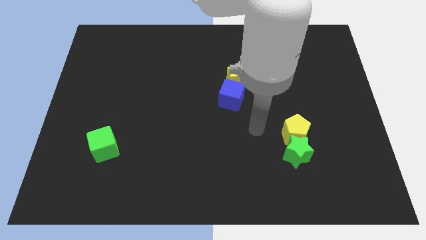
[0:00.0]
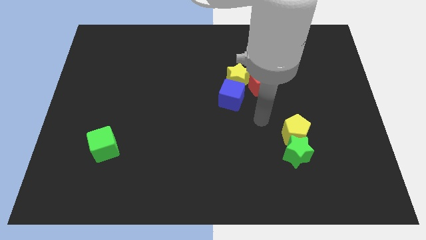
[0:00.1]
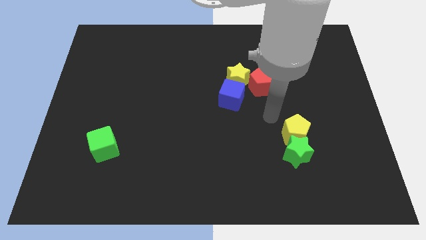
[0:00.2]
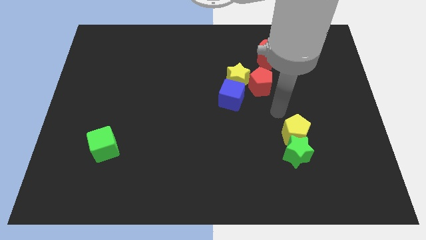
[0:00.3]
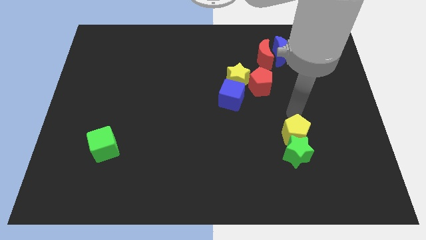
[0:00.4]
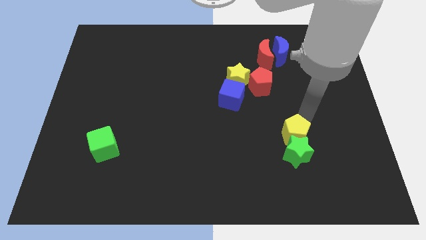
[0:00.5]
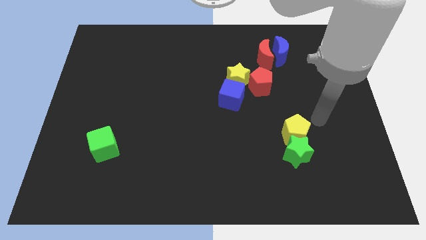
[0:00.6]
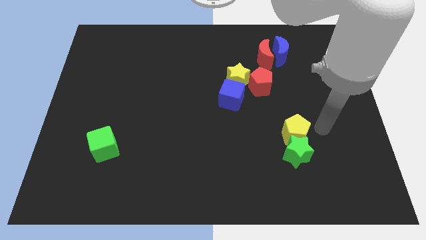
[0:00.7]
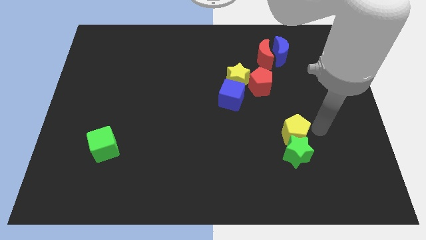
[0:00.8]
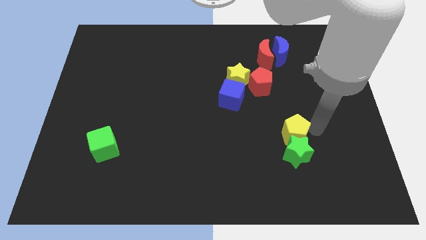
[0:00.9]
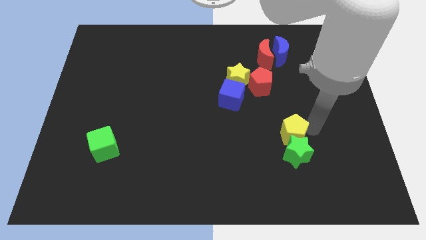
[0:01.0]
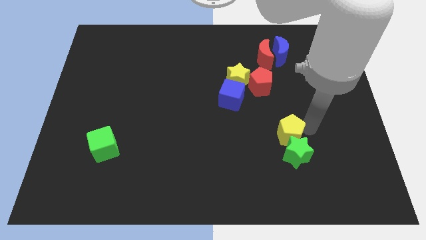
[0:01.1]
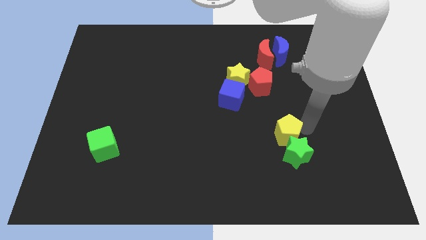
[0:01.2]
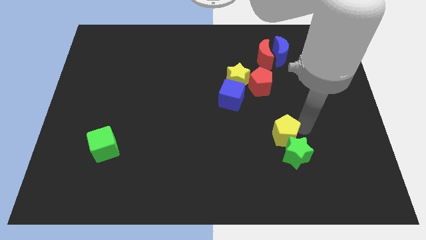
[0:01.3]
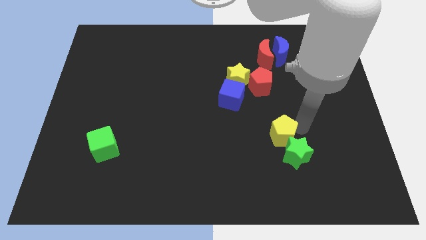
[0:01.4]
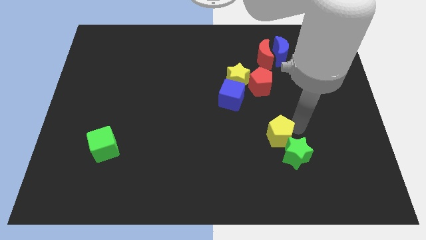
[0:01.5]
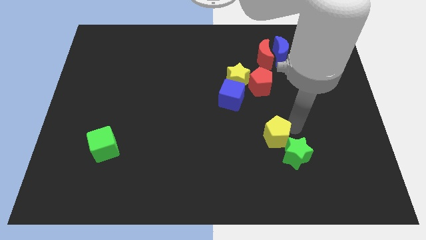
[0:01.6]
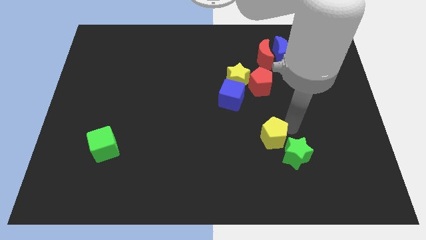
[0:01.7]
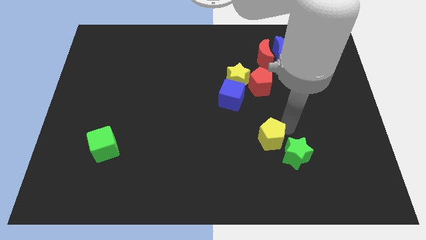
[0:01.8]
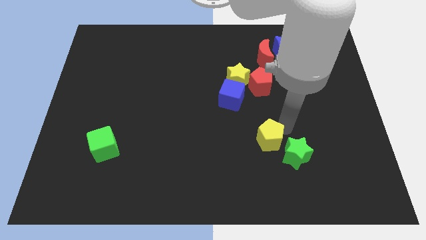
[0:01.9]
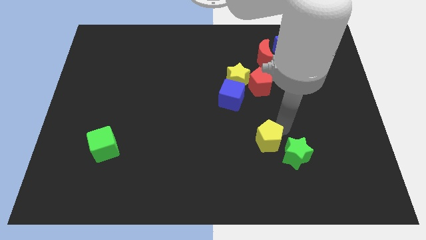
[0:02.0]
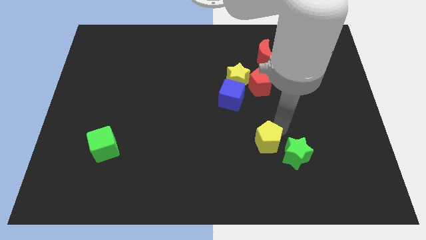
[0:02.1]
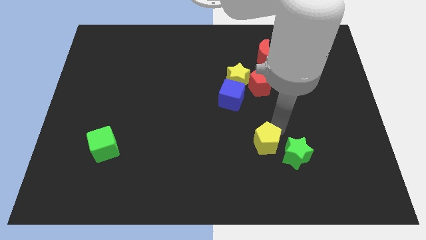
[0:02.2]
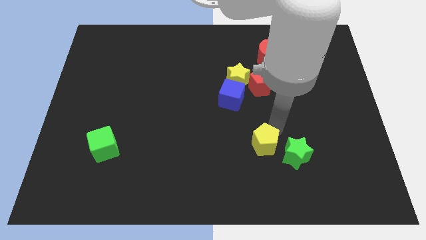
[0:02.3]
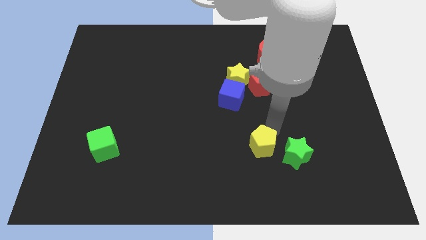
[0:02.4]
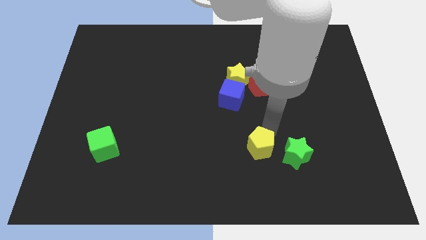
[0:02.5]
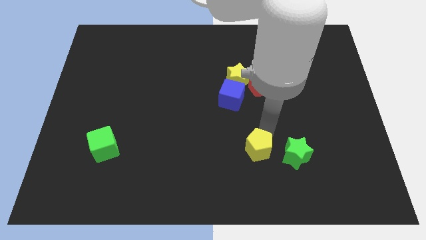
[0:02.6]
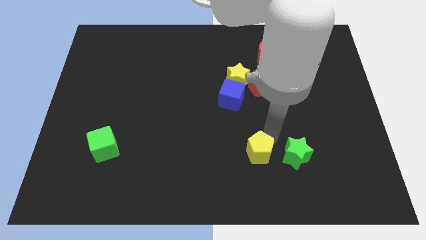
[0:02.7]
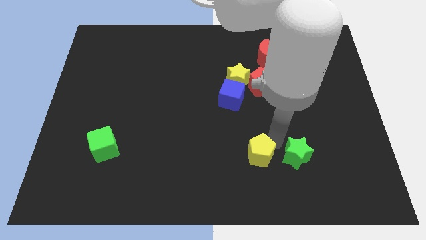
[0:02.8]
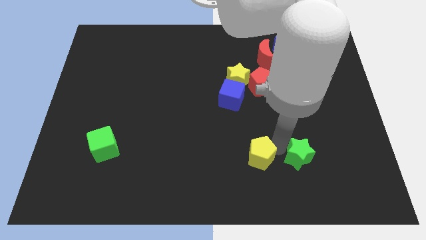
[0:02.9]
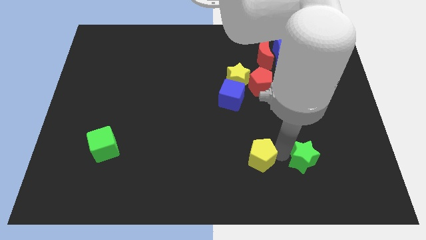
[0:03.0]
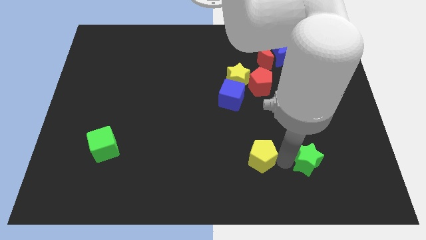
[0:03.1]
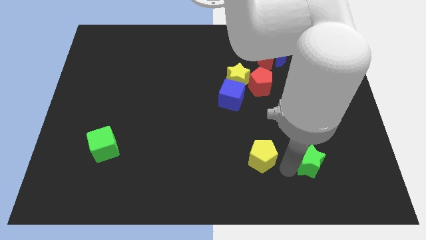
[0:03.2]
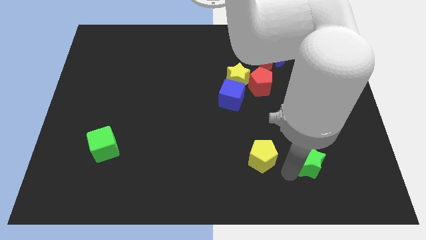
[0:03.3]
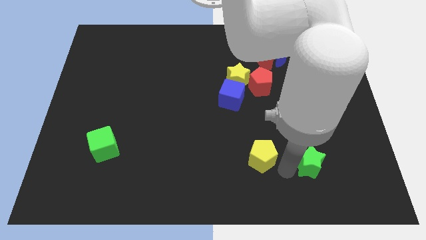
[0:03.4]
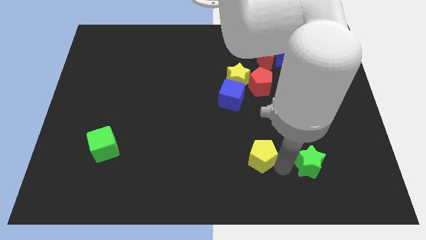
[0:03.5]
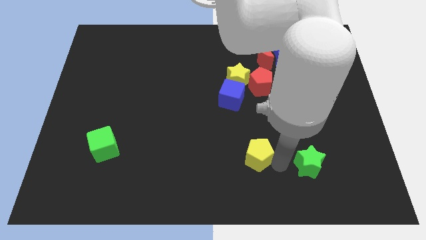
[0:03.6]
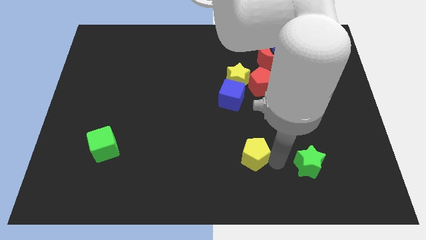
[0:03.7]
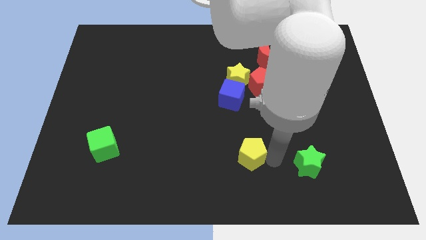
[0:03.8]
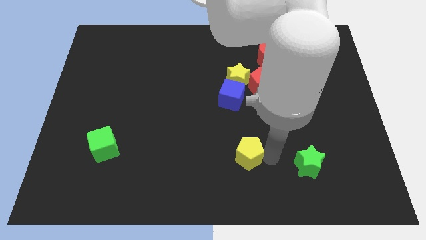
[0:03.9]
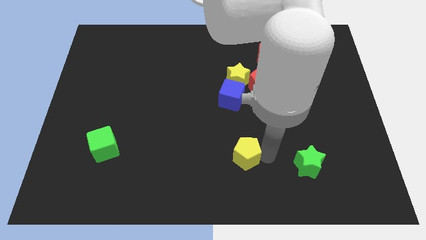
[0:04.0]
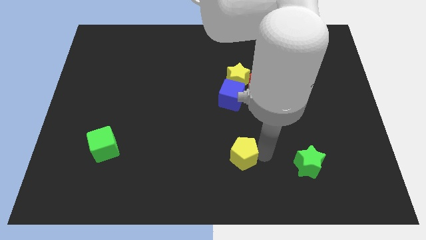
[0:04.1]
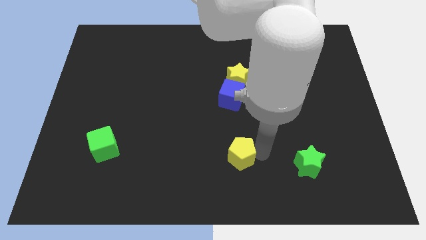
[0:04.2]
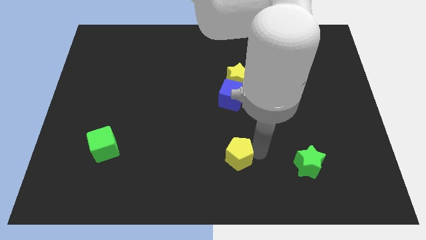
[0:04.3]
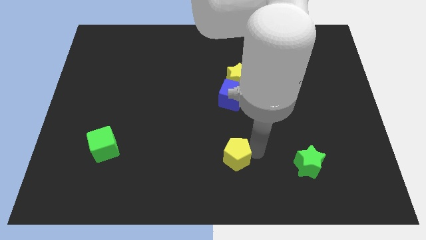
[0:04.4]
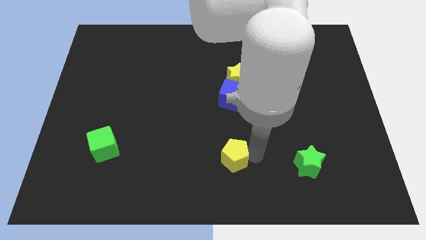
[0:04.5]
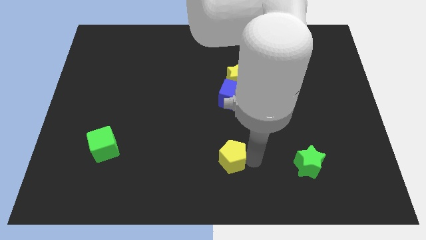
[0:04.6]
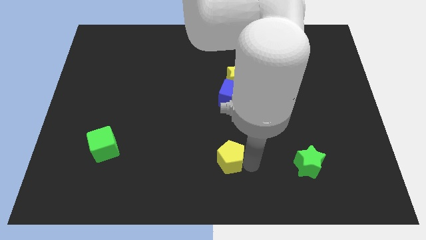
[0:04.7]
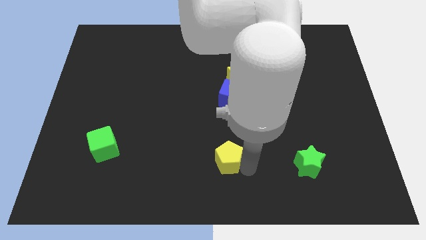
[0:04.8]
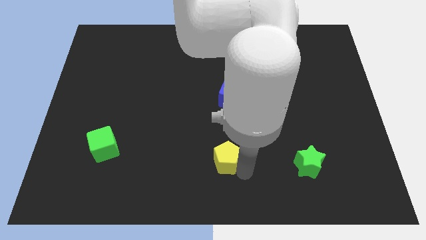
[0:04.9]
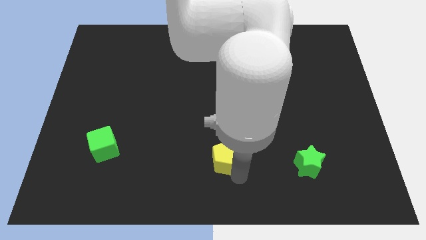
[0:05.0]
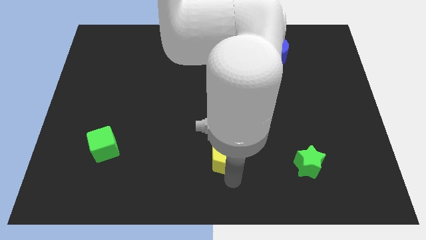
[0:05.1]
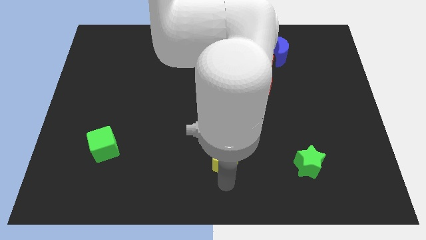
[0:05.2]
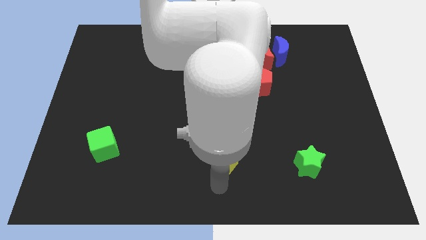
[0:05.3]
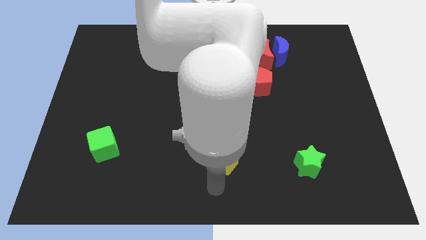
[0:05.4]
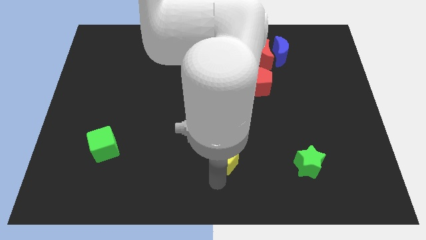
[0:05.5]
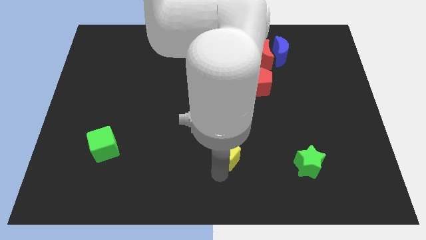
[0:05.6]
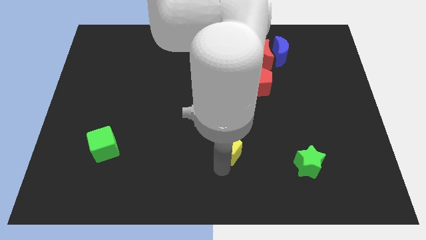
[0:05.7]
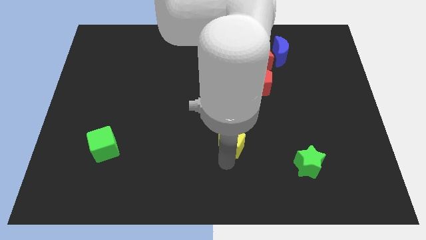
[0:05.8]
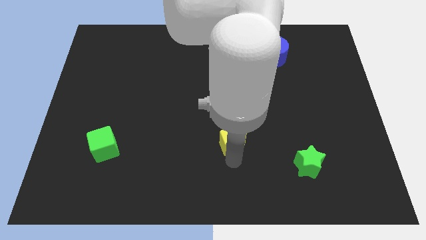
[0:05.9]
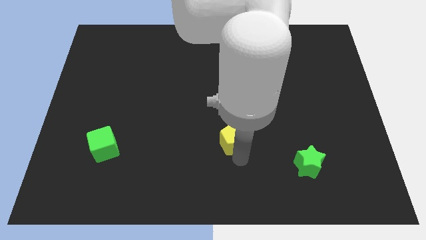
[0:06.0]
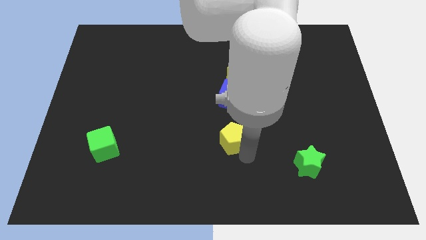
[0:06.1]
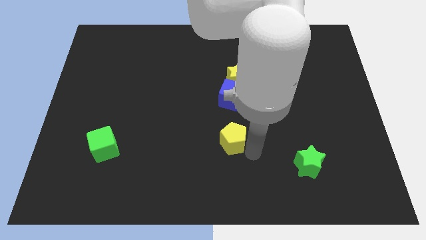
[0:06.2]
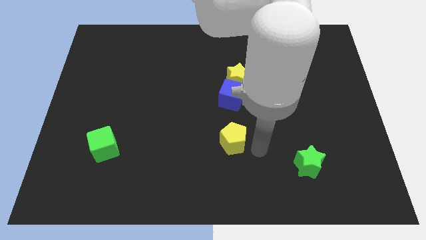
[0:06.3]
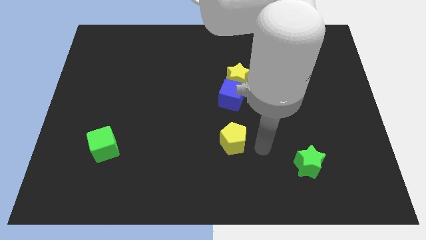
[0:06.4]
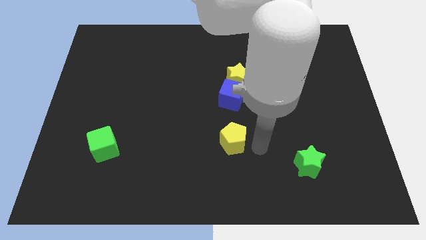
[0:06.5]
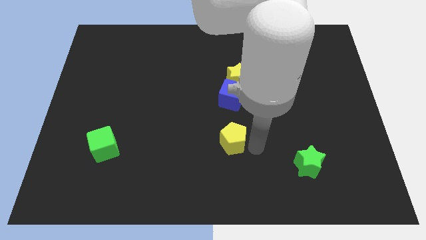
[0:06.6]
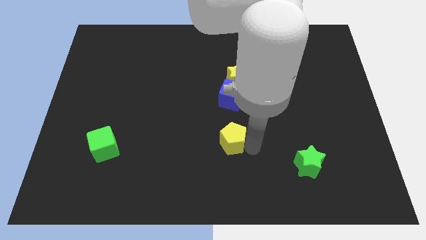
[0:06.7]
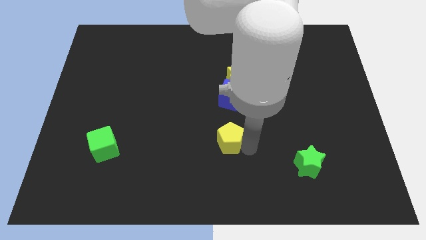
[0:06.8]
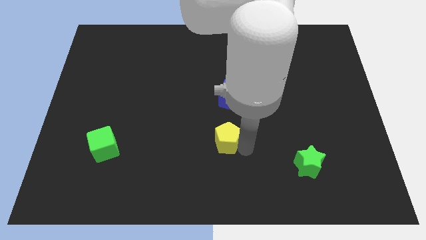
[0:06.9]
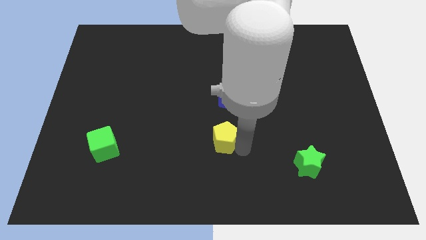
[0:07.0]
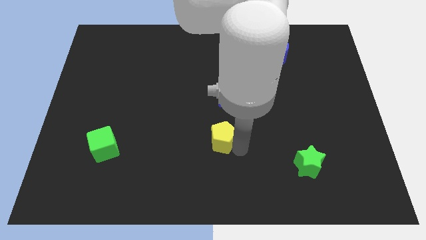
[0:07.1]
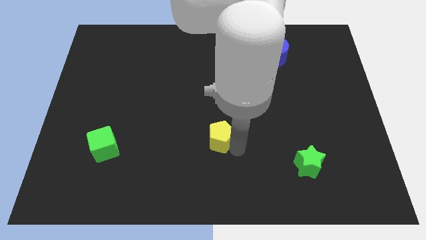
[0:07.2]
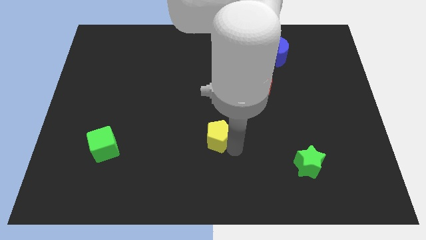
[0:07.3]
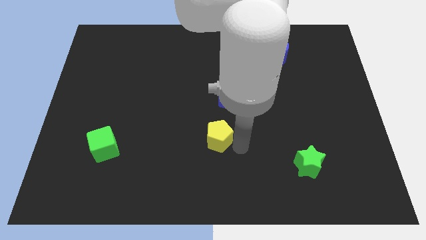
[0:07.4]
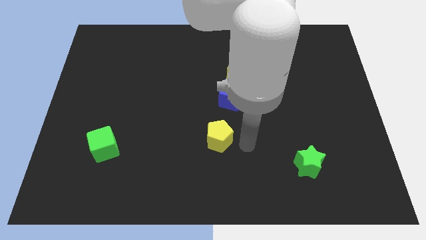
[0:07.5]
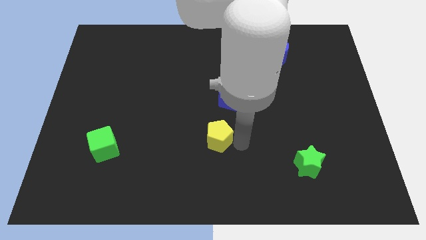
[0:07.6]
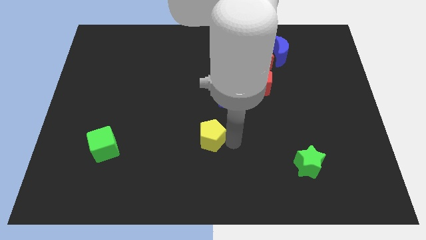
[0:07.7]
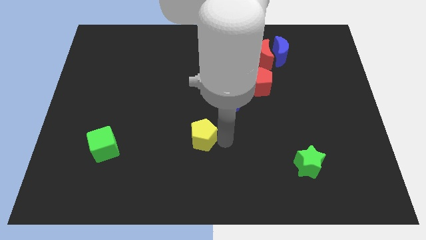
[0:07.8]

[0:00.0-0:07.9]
move the yellow pentagon left

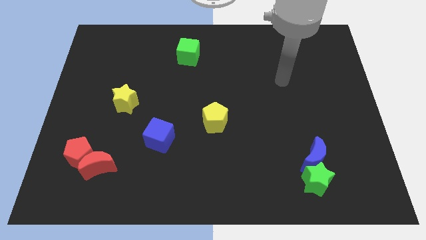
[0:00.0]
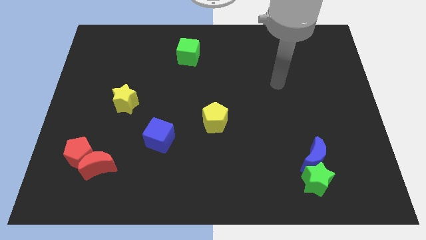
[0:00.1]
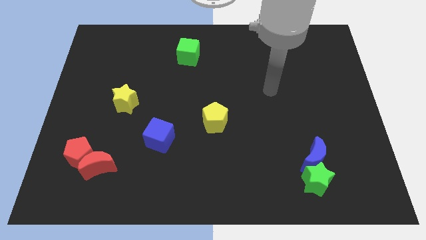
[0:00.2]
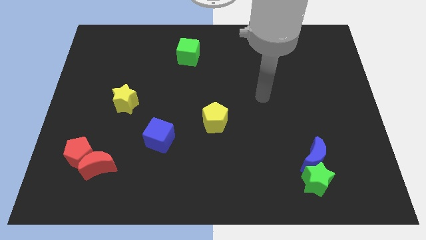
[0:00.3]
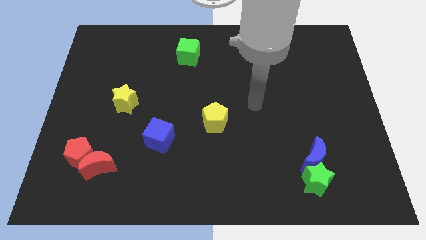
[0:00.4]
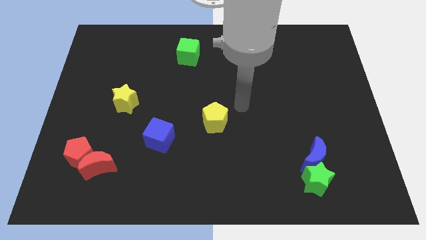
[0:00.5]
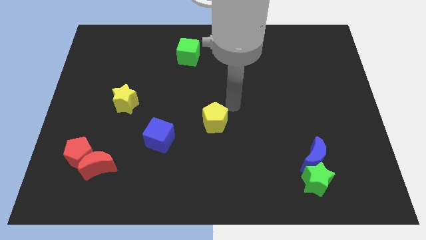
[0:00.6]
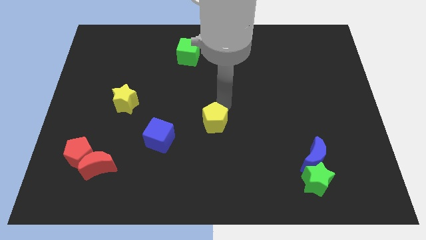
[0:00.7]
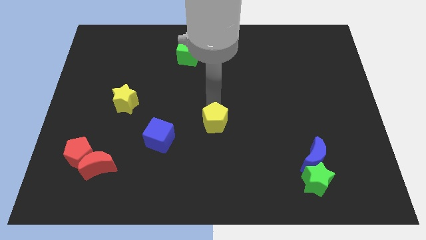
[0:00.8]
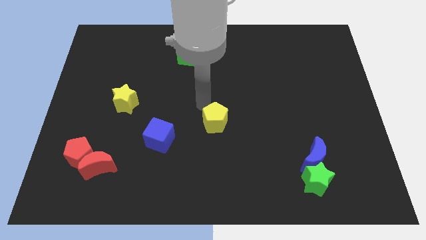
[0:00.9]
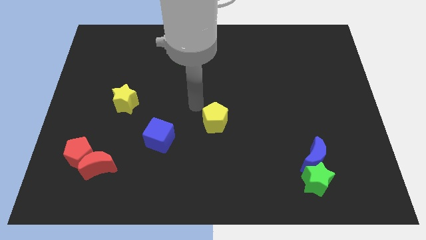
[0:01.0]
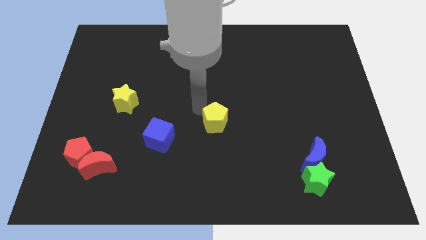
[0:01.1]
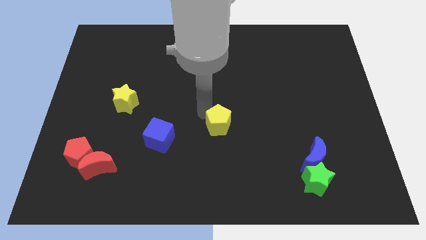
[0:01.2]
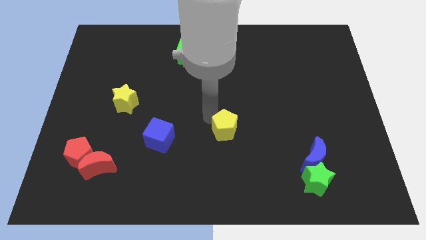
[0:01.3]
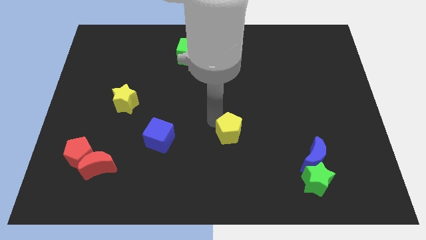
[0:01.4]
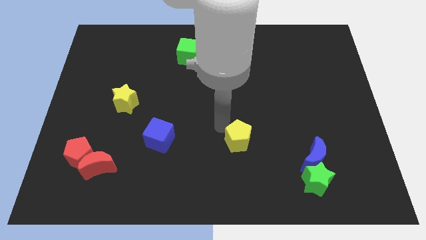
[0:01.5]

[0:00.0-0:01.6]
slightly push the yellow pentagon diagonally downwards and to the right
